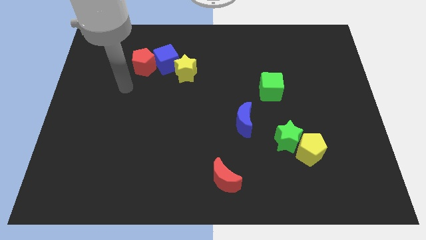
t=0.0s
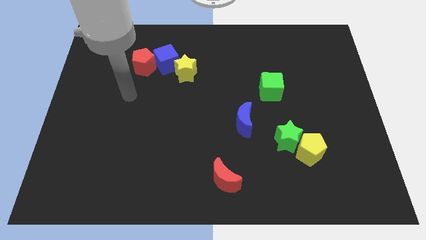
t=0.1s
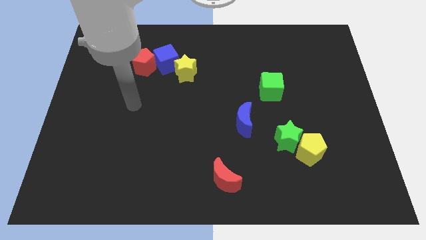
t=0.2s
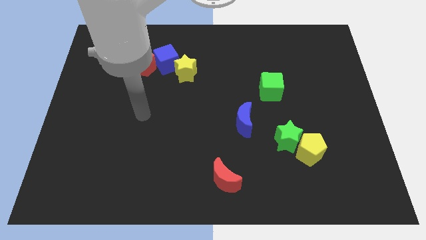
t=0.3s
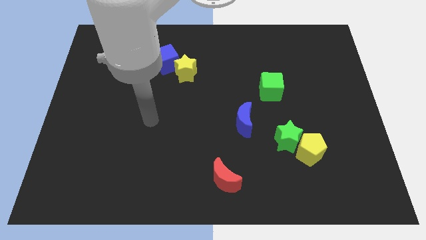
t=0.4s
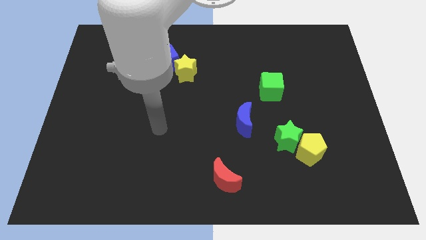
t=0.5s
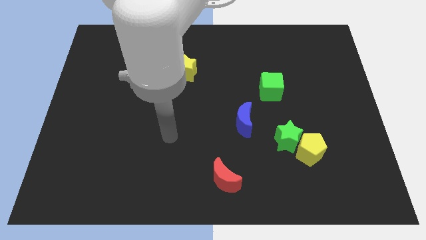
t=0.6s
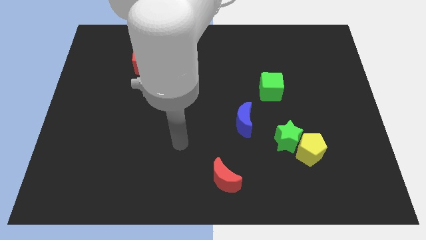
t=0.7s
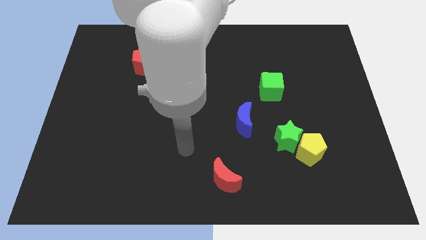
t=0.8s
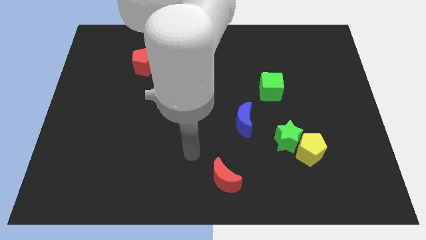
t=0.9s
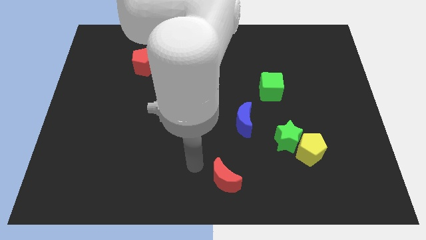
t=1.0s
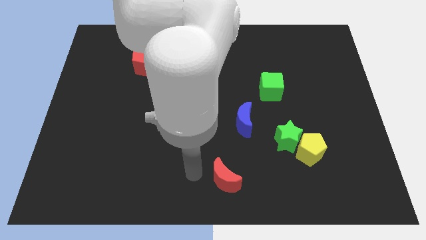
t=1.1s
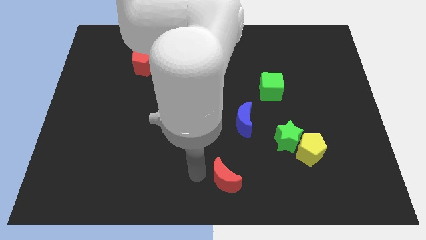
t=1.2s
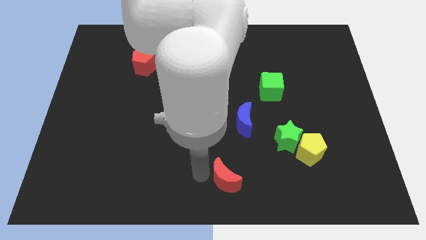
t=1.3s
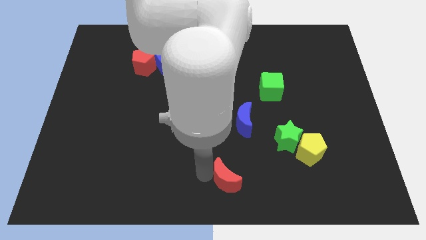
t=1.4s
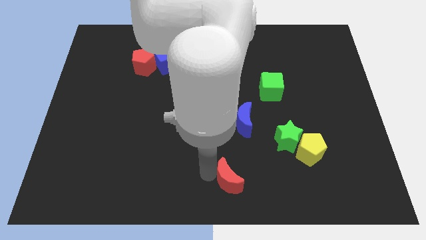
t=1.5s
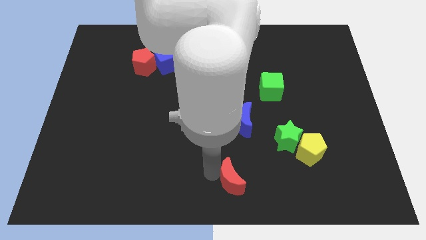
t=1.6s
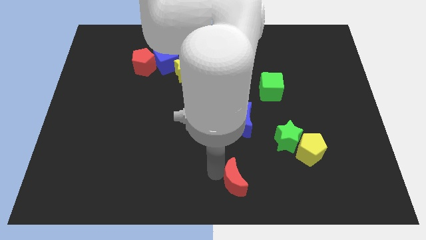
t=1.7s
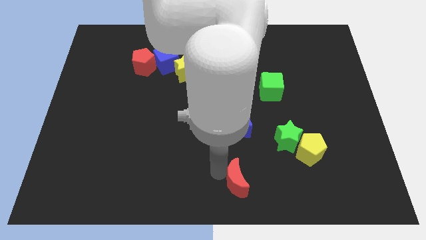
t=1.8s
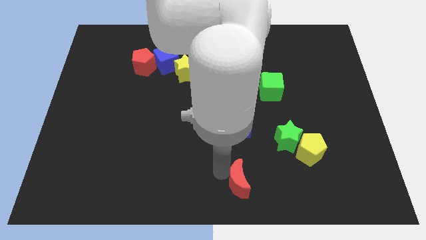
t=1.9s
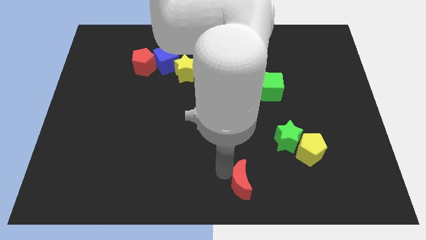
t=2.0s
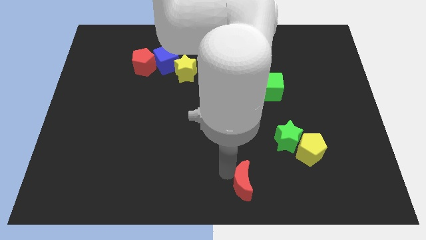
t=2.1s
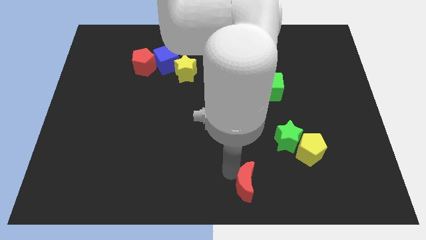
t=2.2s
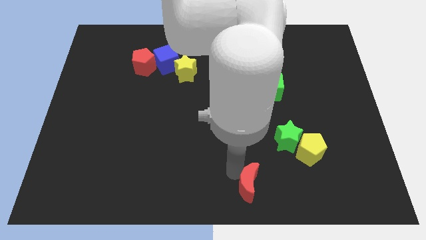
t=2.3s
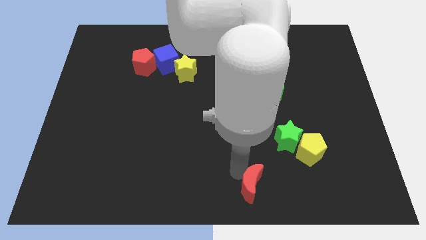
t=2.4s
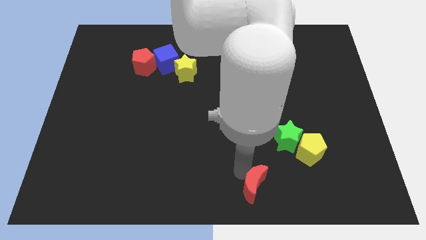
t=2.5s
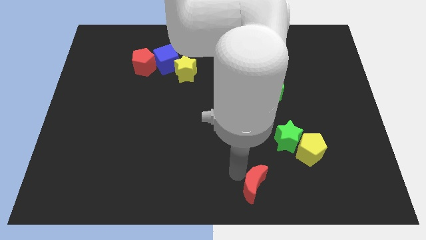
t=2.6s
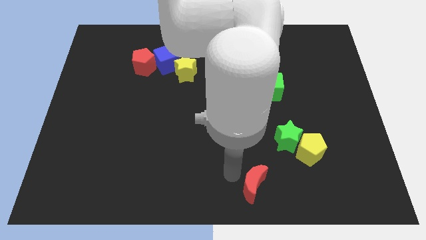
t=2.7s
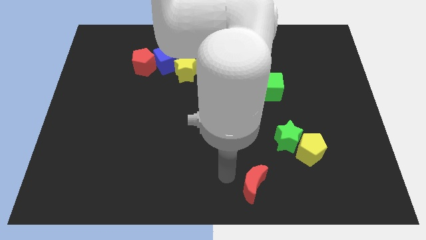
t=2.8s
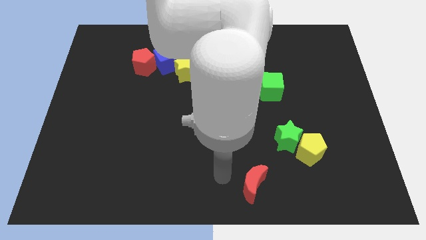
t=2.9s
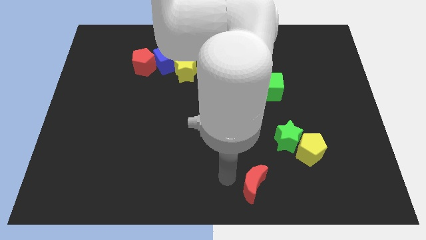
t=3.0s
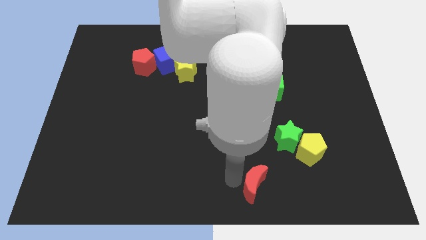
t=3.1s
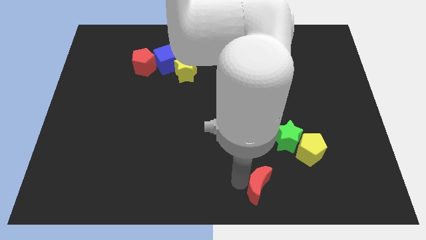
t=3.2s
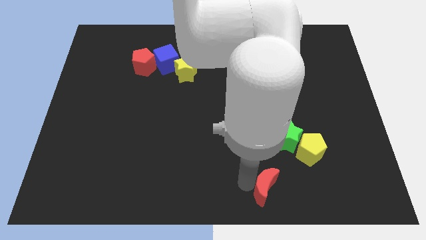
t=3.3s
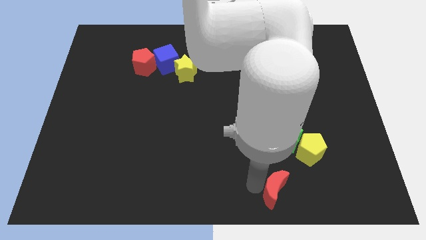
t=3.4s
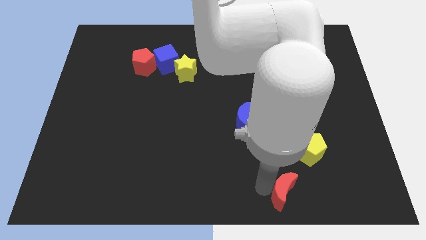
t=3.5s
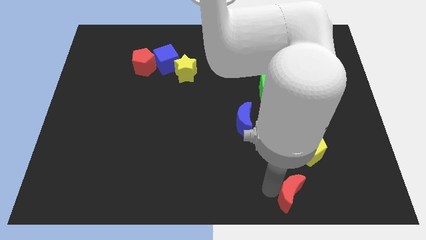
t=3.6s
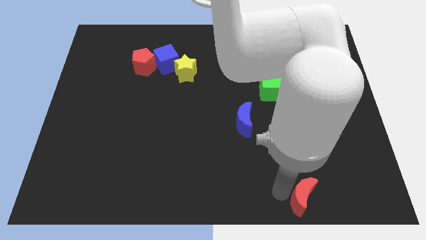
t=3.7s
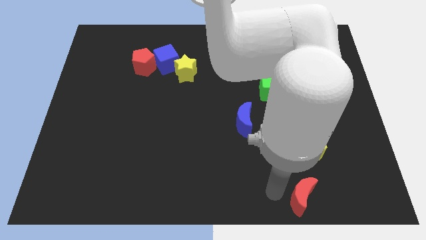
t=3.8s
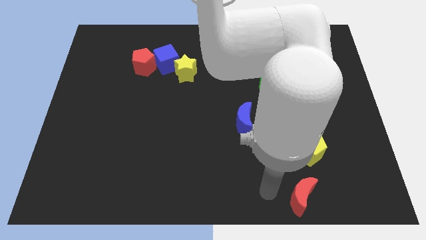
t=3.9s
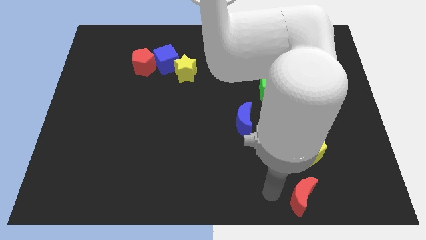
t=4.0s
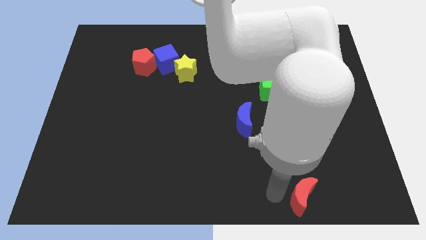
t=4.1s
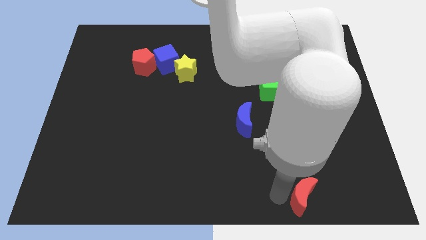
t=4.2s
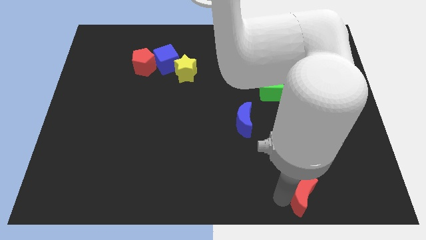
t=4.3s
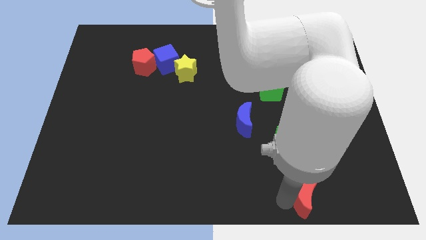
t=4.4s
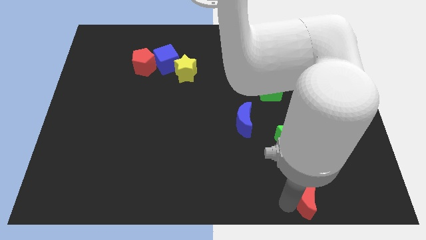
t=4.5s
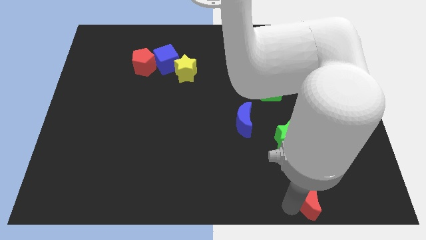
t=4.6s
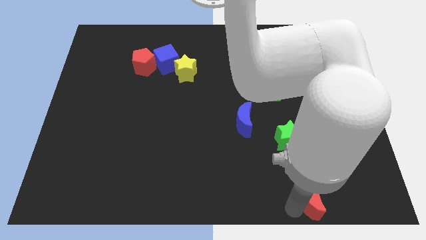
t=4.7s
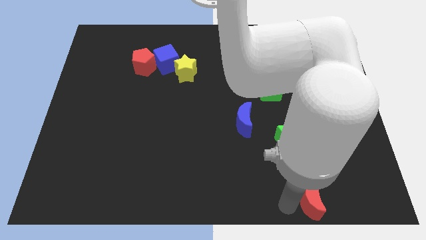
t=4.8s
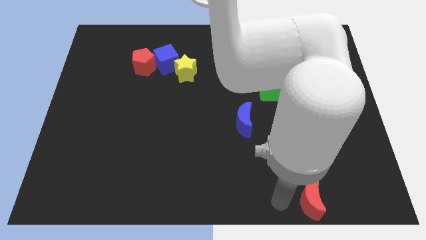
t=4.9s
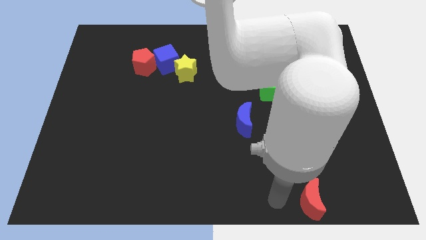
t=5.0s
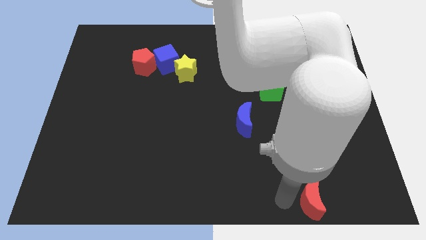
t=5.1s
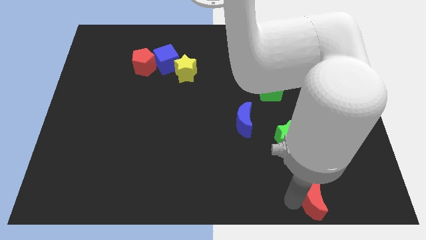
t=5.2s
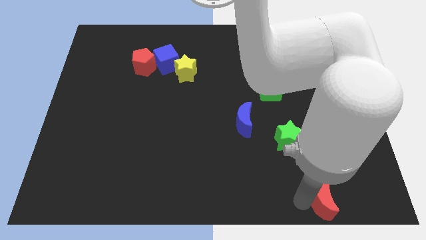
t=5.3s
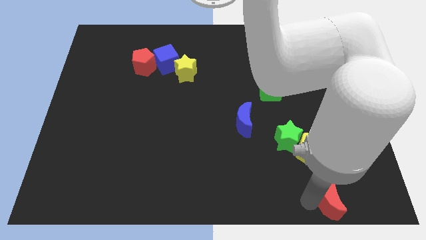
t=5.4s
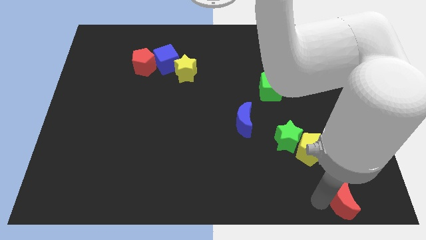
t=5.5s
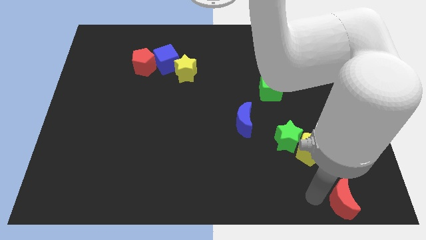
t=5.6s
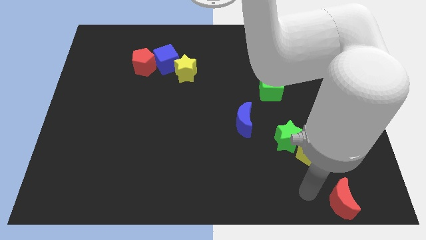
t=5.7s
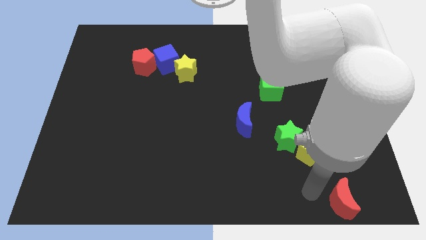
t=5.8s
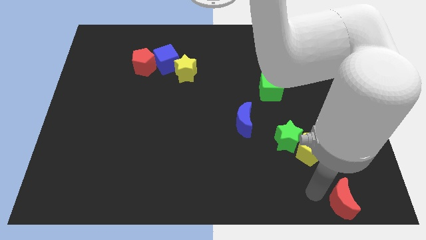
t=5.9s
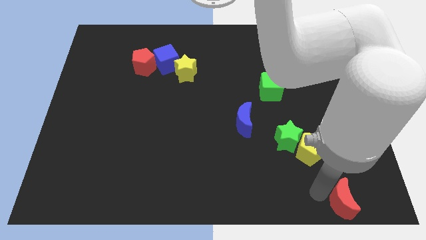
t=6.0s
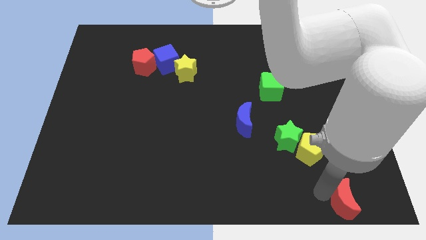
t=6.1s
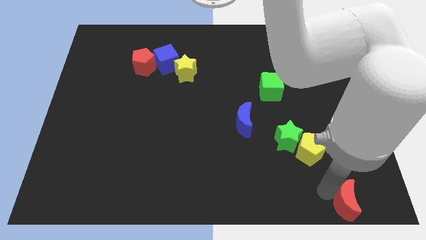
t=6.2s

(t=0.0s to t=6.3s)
move the red moon to the bottom right corner
